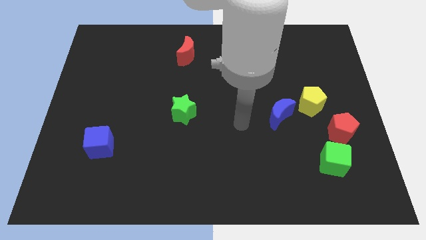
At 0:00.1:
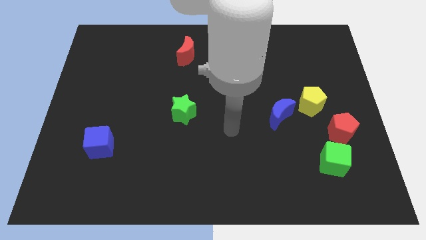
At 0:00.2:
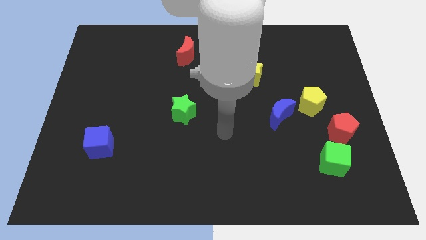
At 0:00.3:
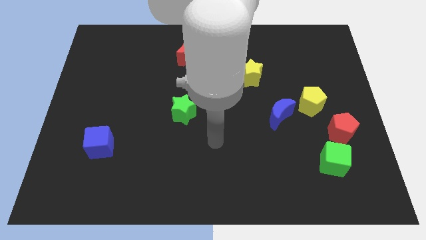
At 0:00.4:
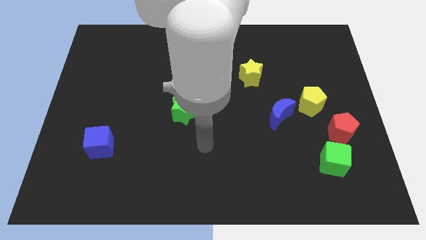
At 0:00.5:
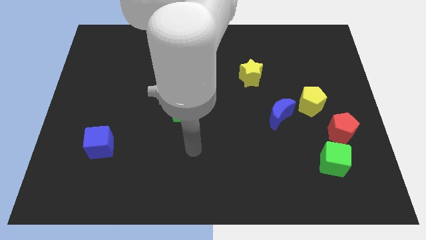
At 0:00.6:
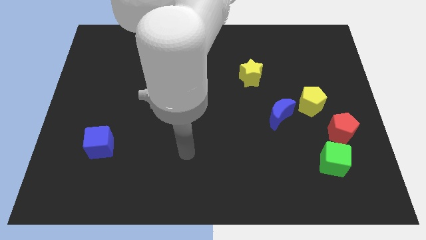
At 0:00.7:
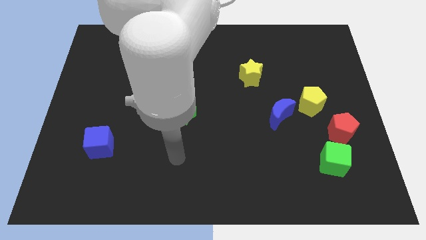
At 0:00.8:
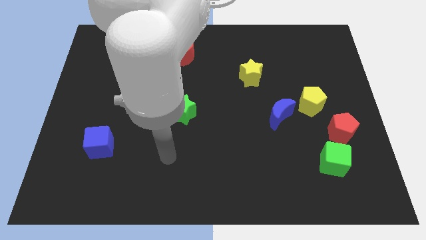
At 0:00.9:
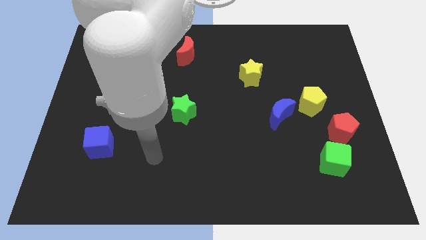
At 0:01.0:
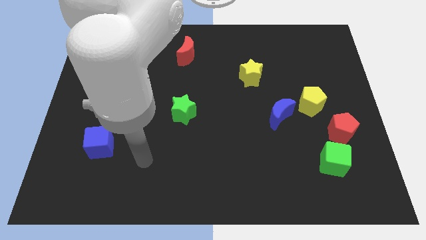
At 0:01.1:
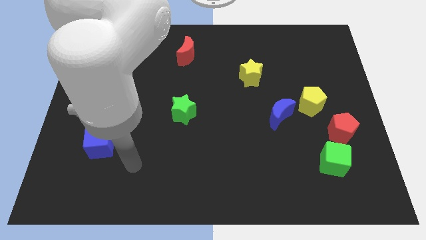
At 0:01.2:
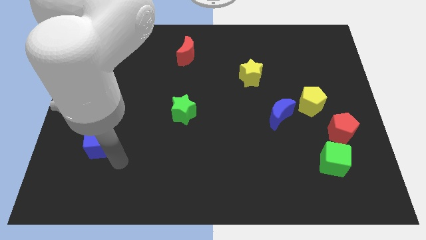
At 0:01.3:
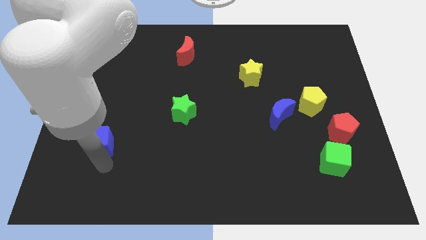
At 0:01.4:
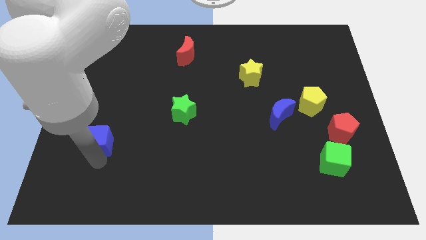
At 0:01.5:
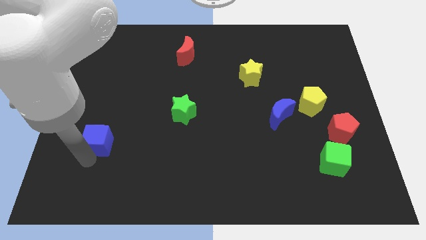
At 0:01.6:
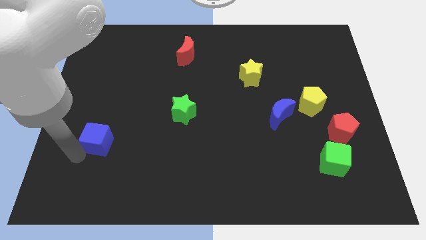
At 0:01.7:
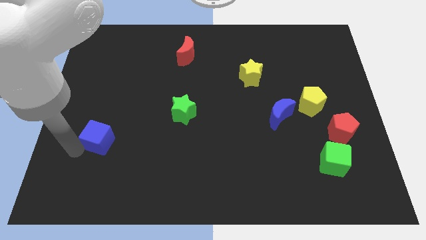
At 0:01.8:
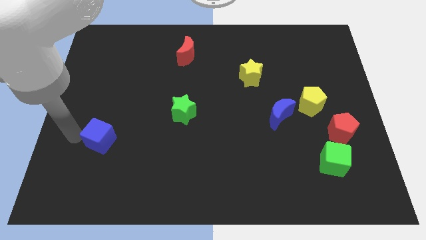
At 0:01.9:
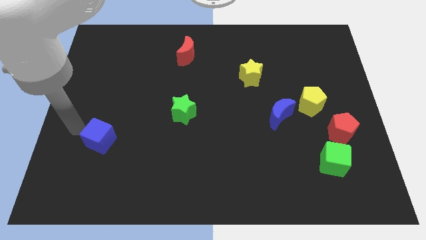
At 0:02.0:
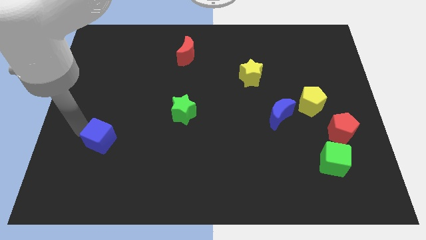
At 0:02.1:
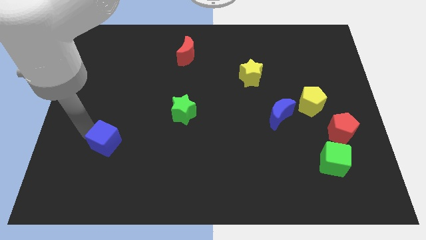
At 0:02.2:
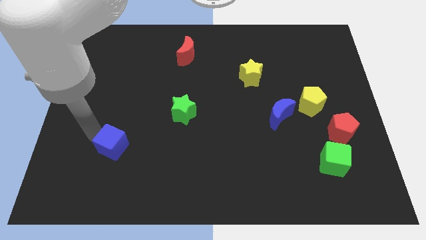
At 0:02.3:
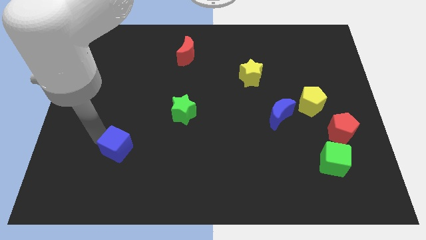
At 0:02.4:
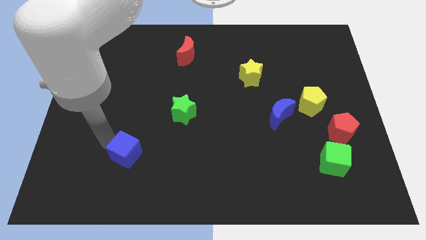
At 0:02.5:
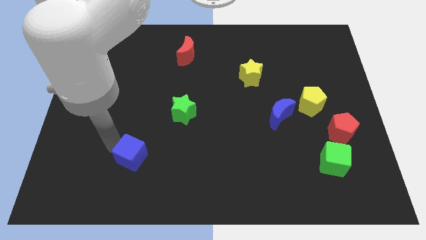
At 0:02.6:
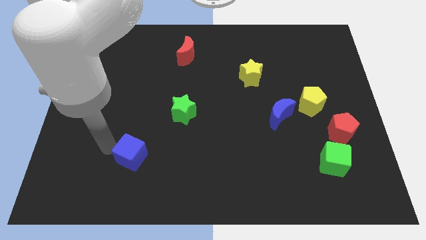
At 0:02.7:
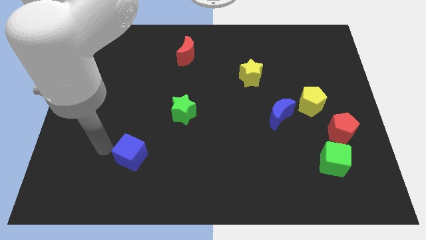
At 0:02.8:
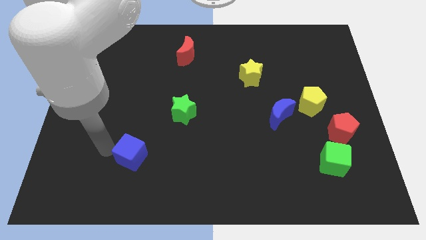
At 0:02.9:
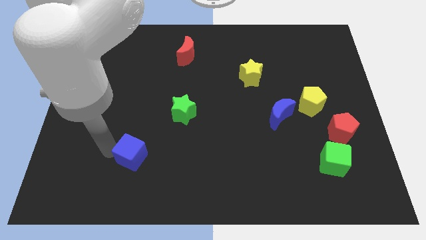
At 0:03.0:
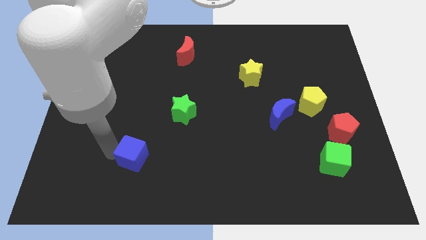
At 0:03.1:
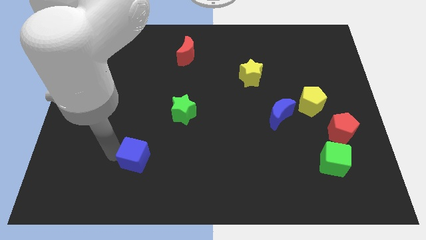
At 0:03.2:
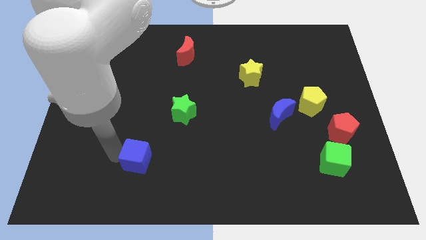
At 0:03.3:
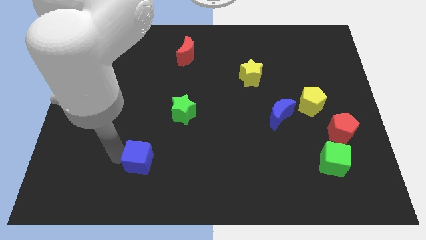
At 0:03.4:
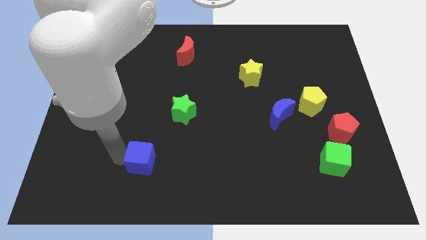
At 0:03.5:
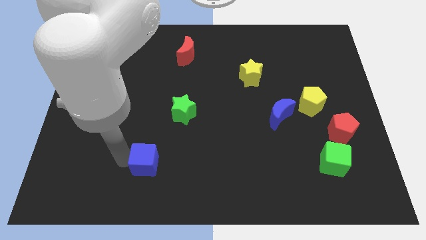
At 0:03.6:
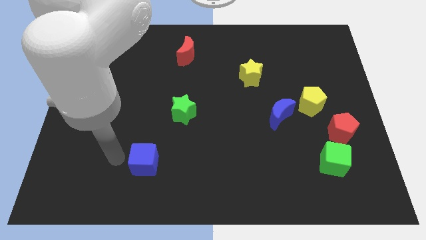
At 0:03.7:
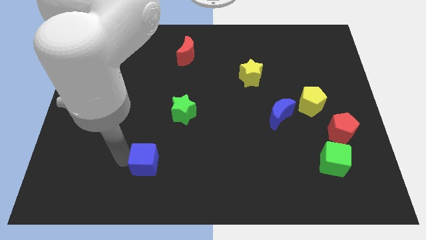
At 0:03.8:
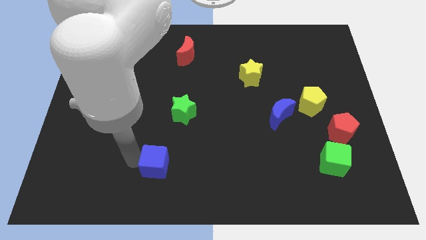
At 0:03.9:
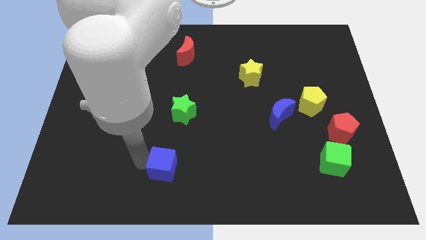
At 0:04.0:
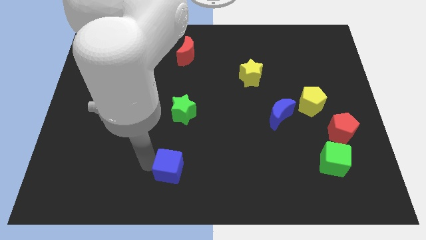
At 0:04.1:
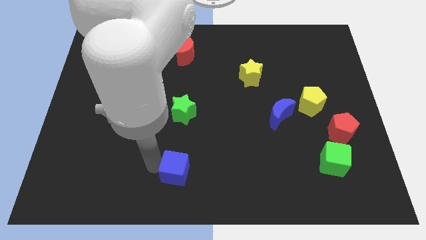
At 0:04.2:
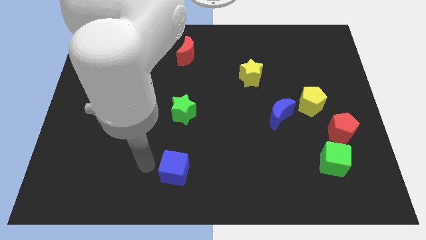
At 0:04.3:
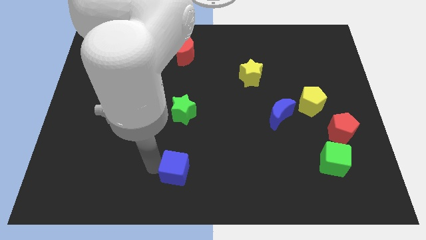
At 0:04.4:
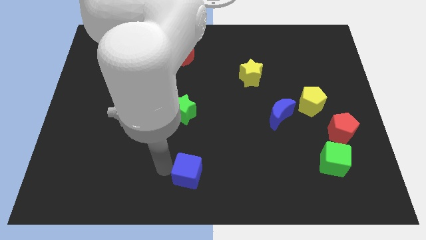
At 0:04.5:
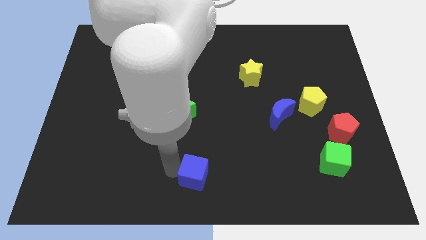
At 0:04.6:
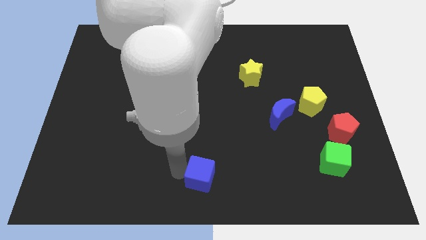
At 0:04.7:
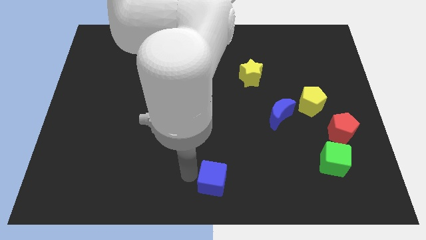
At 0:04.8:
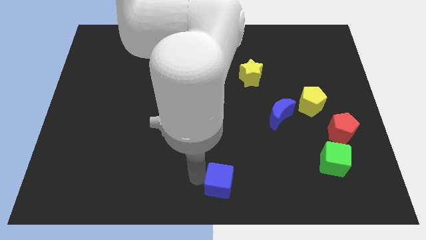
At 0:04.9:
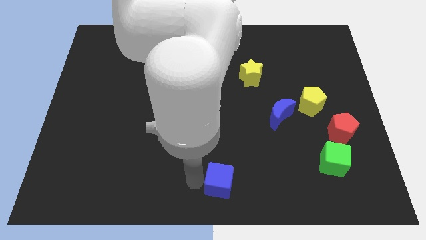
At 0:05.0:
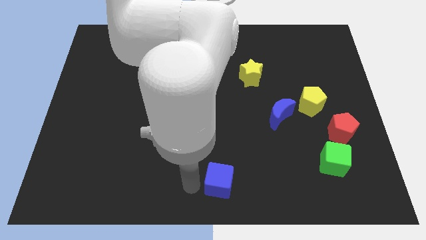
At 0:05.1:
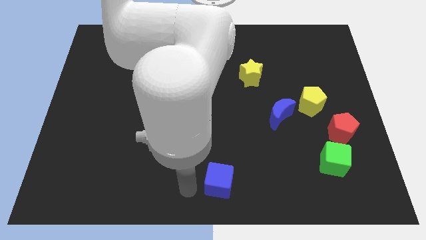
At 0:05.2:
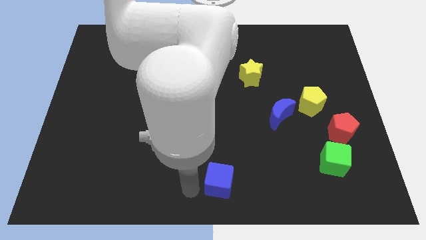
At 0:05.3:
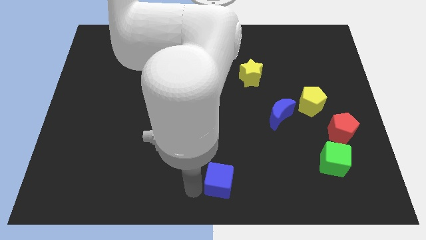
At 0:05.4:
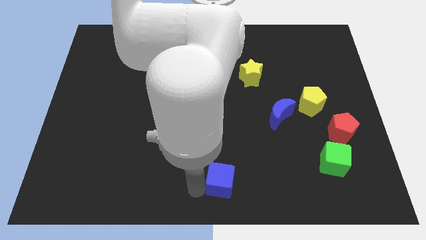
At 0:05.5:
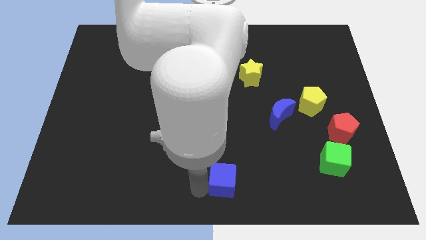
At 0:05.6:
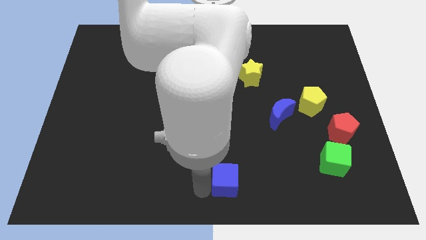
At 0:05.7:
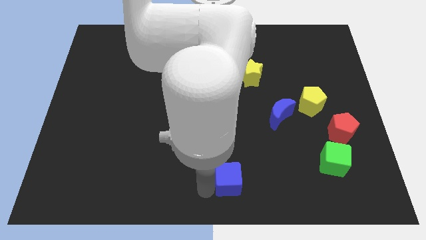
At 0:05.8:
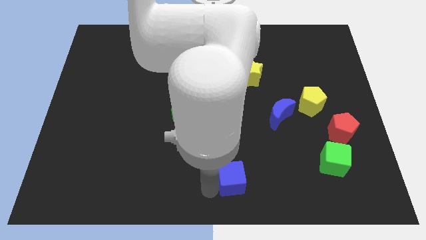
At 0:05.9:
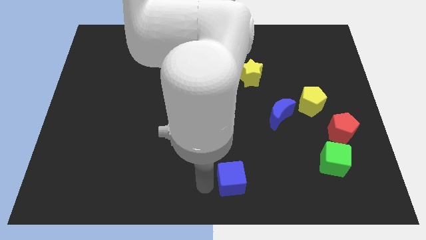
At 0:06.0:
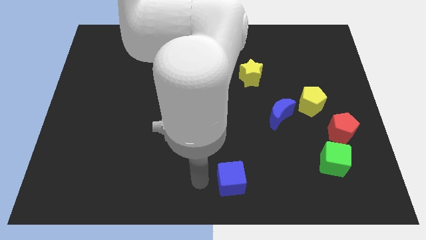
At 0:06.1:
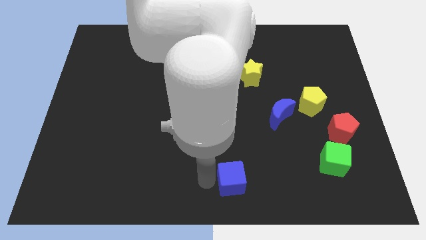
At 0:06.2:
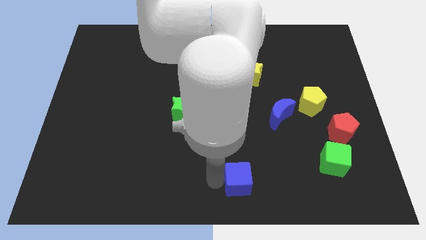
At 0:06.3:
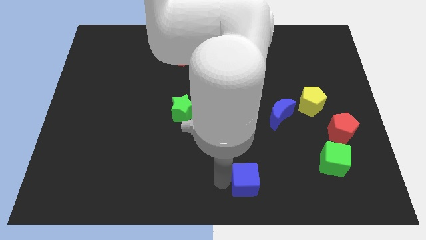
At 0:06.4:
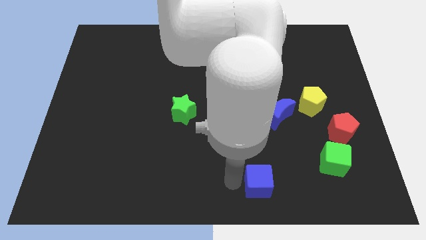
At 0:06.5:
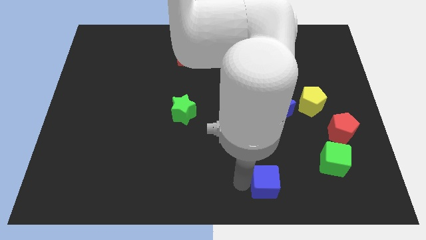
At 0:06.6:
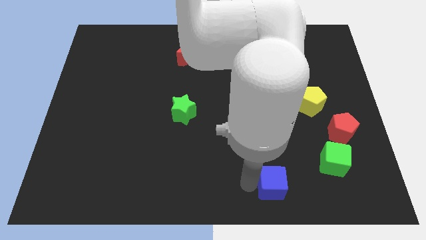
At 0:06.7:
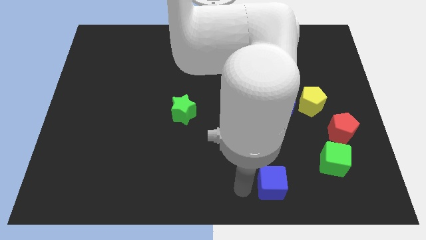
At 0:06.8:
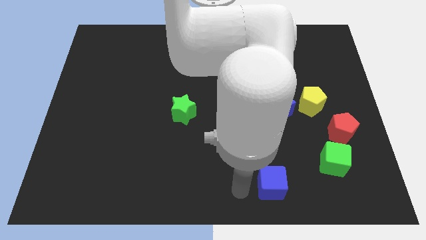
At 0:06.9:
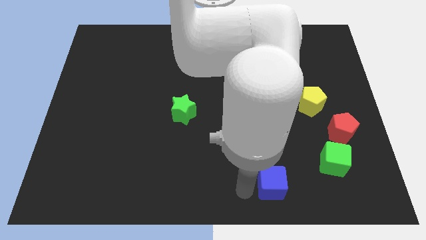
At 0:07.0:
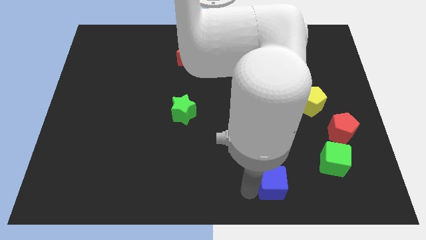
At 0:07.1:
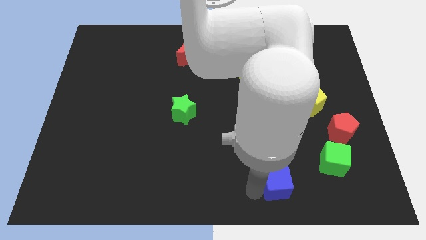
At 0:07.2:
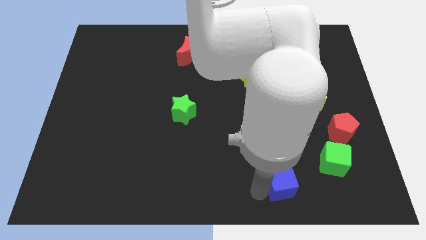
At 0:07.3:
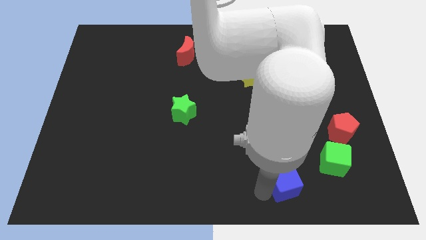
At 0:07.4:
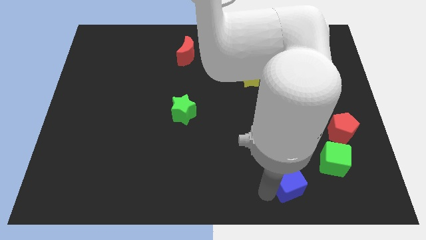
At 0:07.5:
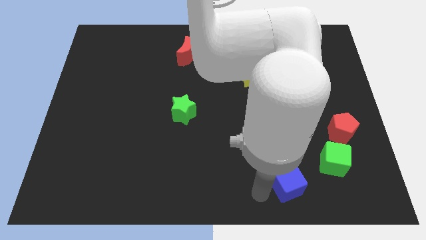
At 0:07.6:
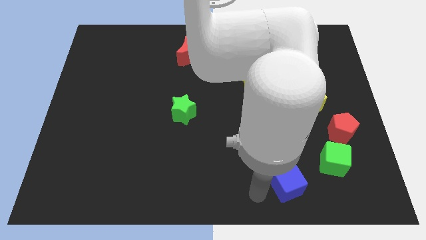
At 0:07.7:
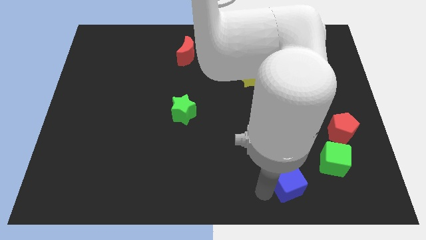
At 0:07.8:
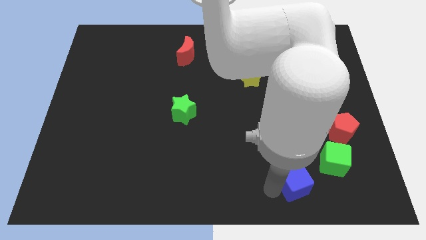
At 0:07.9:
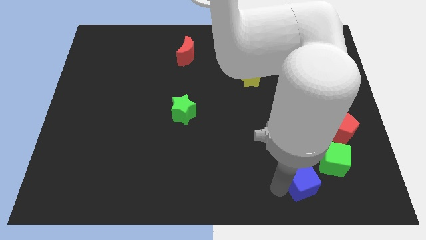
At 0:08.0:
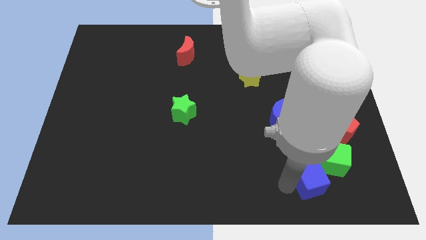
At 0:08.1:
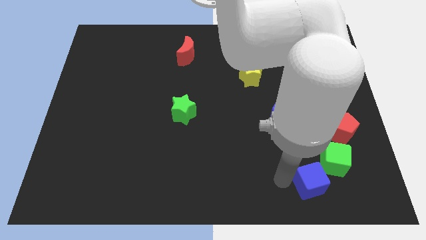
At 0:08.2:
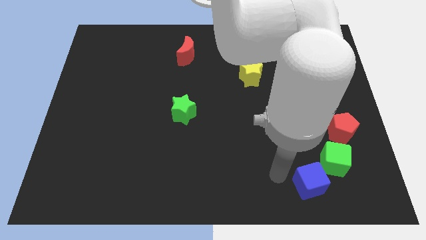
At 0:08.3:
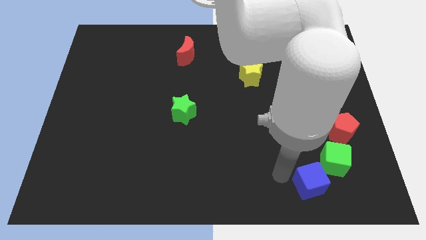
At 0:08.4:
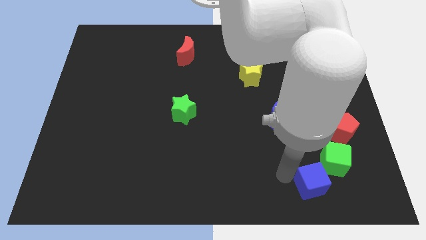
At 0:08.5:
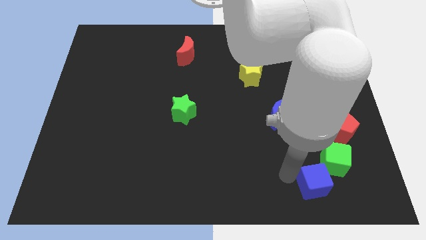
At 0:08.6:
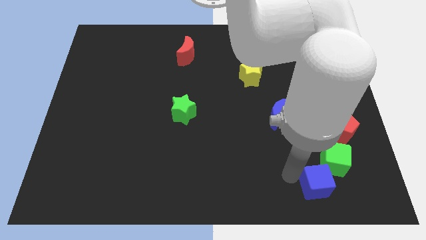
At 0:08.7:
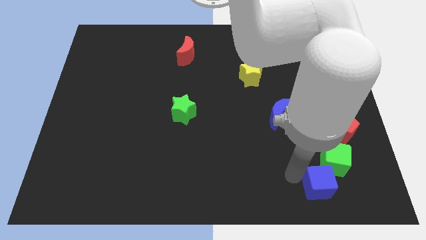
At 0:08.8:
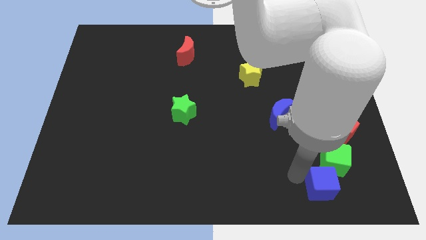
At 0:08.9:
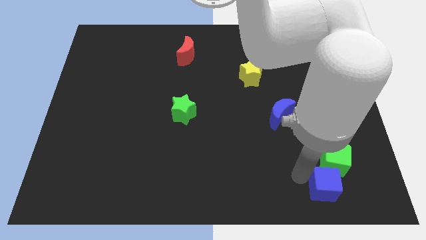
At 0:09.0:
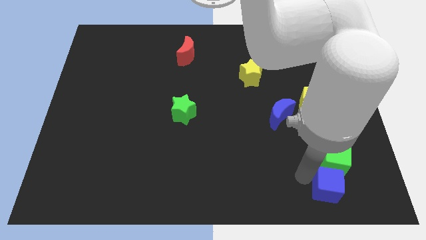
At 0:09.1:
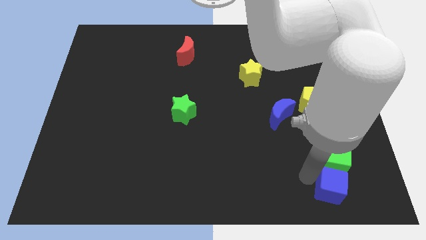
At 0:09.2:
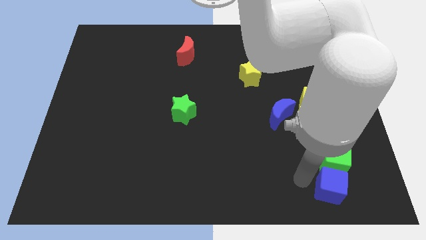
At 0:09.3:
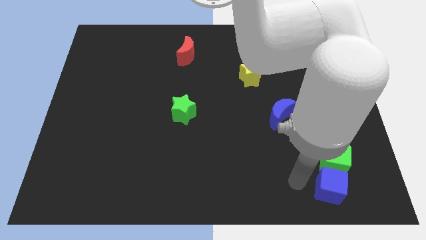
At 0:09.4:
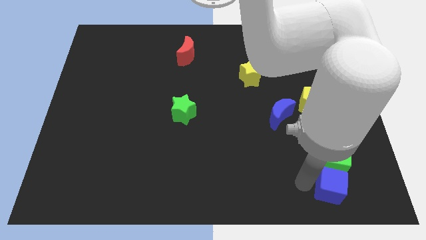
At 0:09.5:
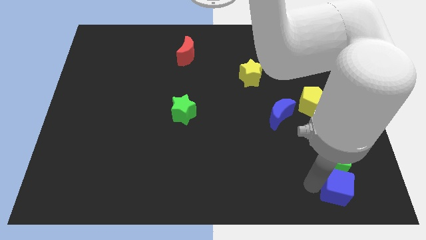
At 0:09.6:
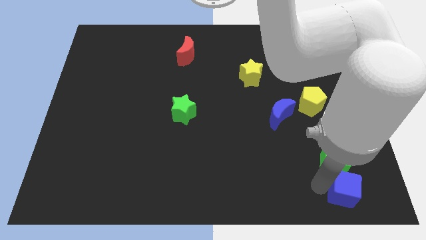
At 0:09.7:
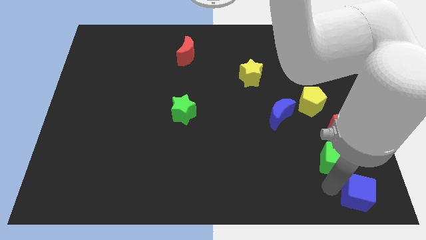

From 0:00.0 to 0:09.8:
slide the blue cube to the bottom right of the board
